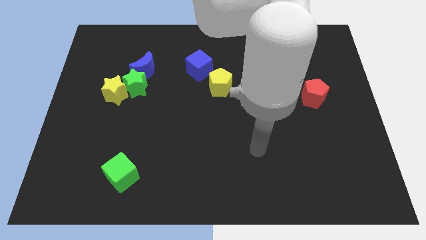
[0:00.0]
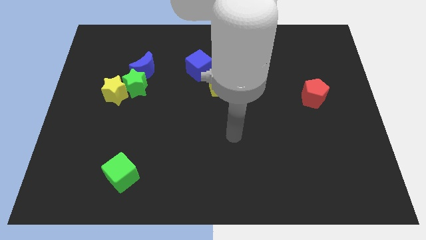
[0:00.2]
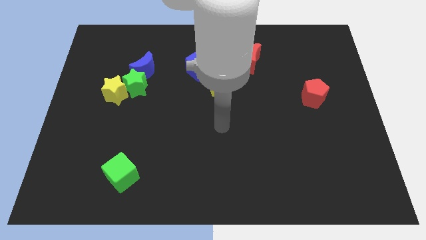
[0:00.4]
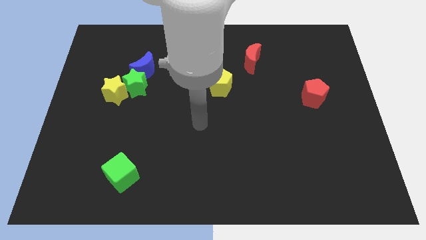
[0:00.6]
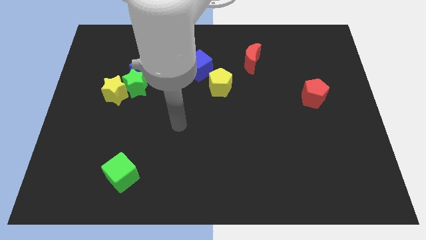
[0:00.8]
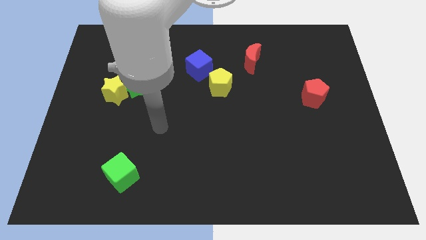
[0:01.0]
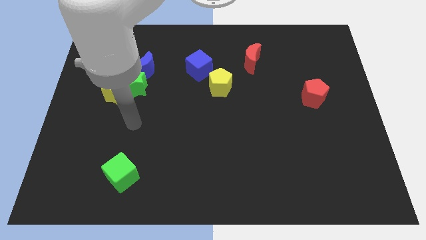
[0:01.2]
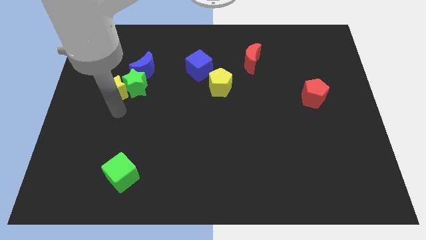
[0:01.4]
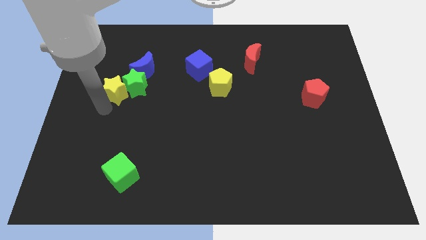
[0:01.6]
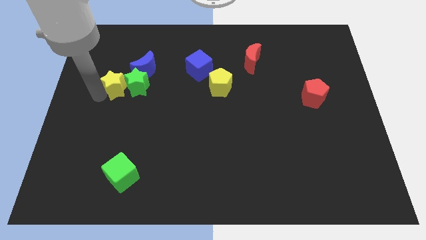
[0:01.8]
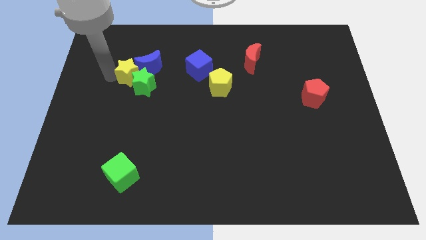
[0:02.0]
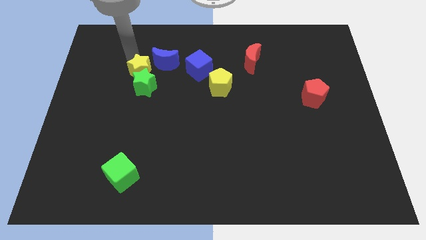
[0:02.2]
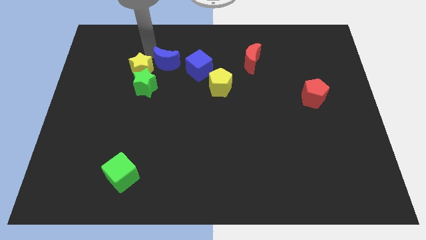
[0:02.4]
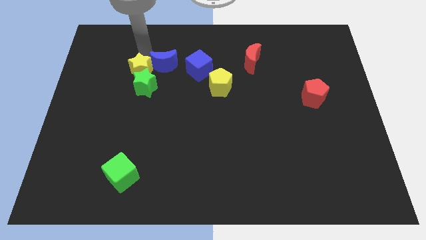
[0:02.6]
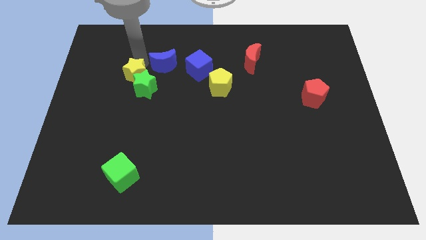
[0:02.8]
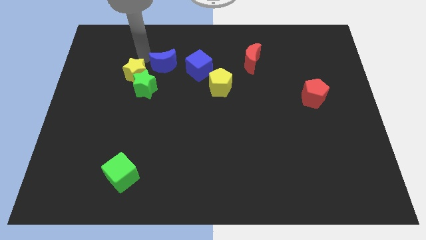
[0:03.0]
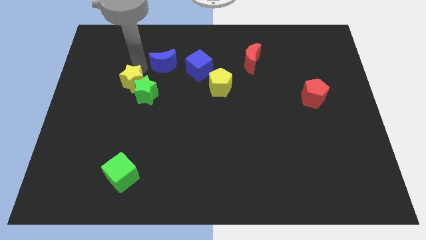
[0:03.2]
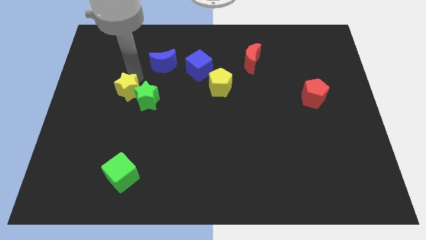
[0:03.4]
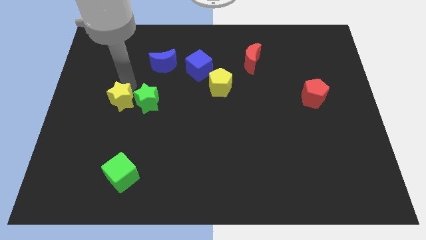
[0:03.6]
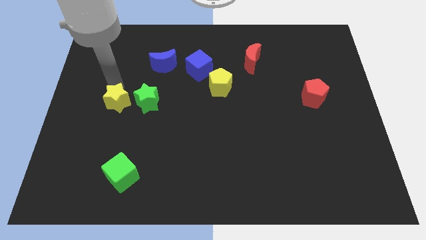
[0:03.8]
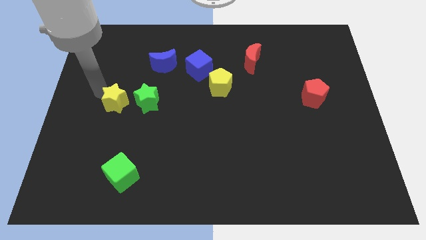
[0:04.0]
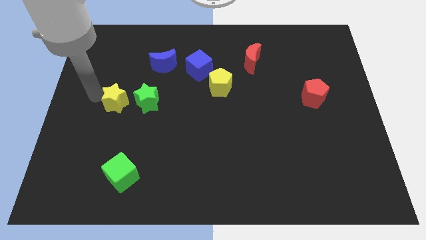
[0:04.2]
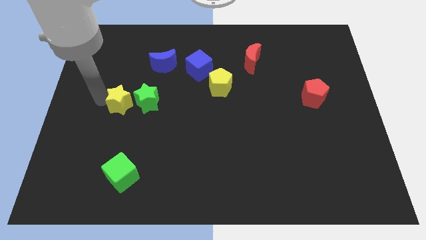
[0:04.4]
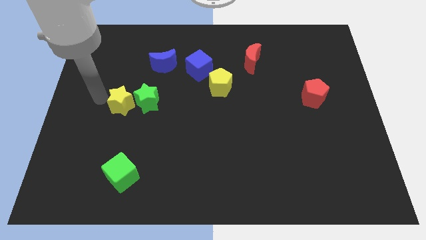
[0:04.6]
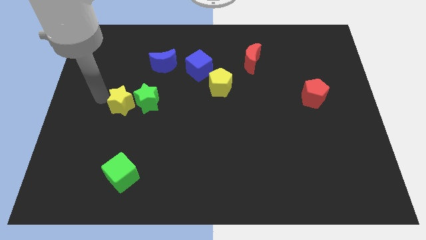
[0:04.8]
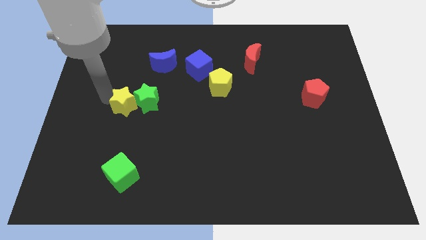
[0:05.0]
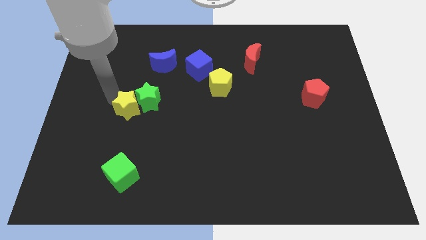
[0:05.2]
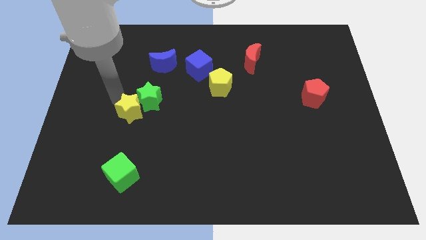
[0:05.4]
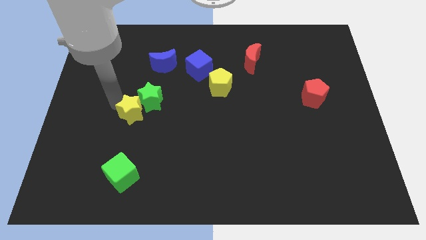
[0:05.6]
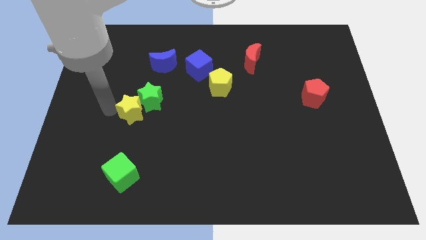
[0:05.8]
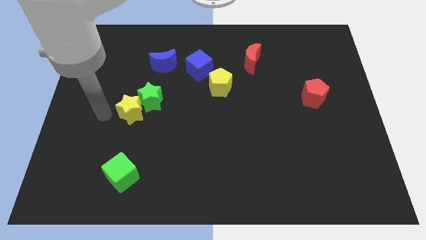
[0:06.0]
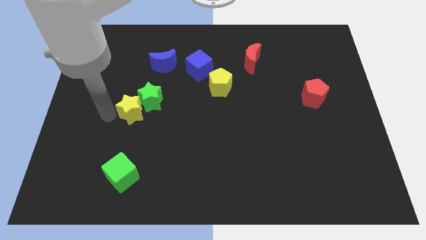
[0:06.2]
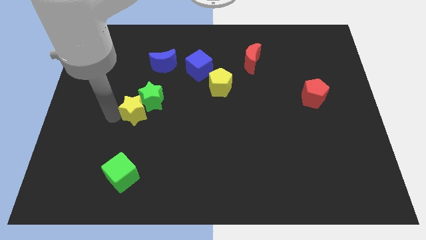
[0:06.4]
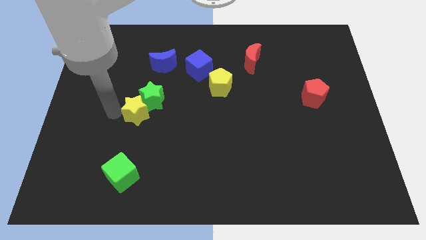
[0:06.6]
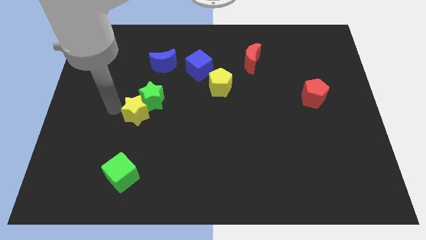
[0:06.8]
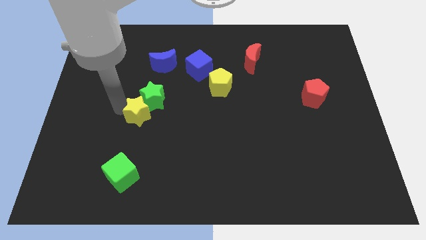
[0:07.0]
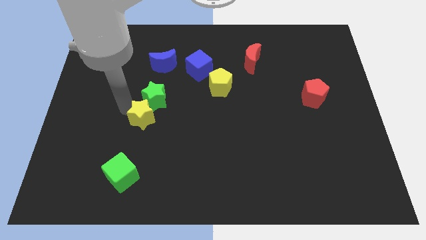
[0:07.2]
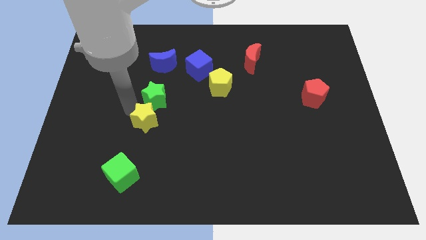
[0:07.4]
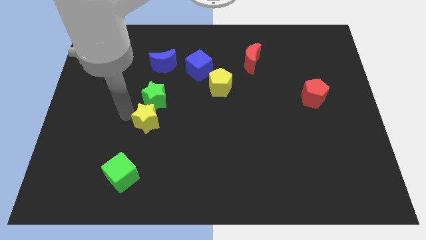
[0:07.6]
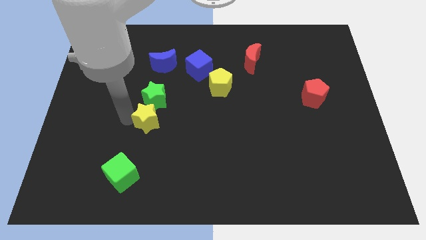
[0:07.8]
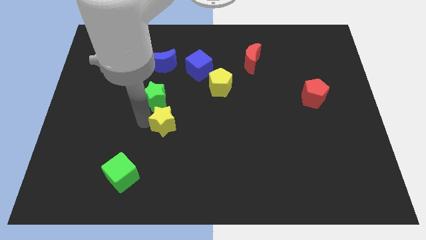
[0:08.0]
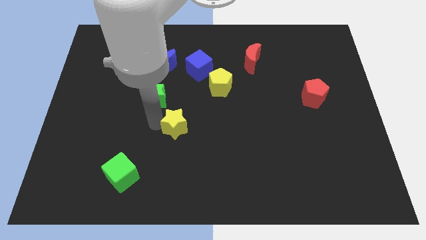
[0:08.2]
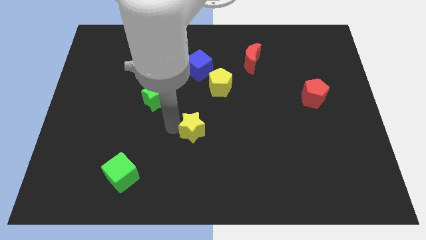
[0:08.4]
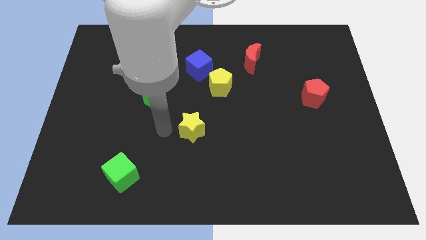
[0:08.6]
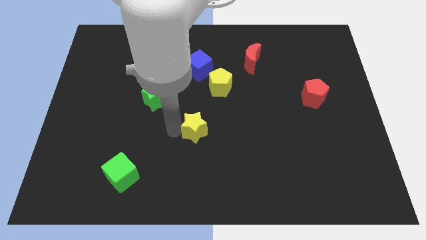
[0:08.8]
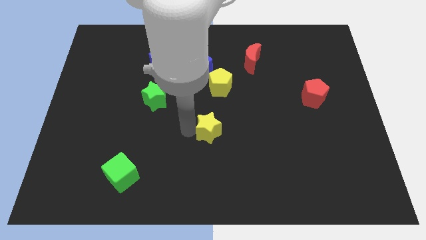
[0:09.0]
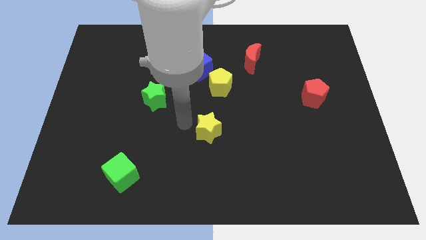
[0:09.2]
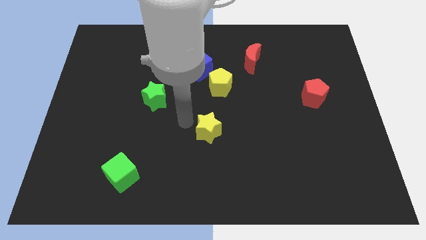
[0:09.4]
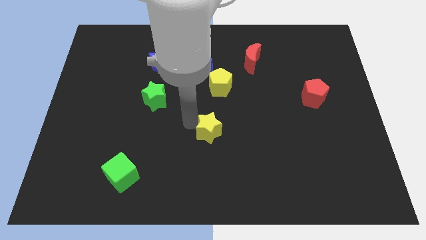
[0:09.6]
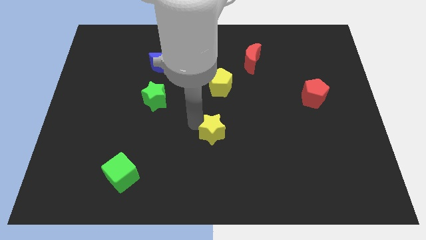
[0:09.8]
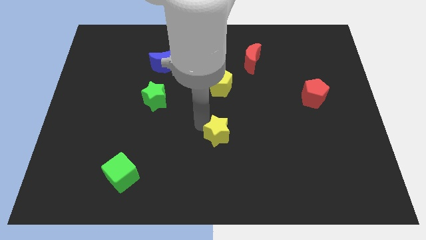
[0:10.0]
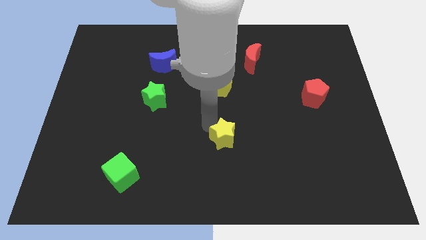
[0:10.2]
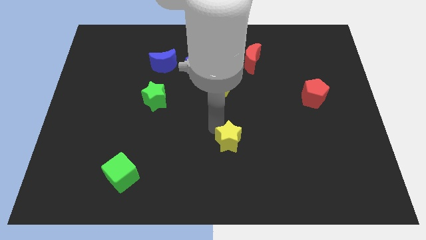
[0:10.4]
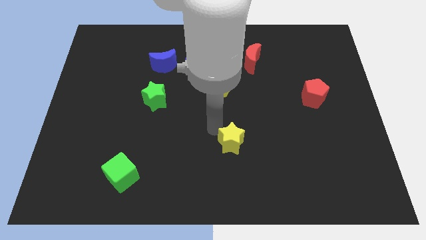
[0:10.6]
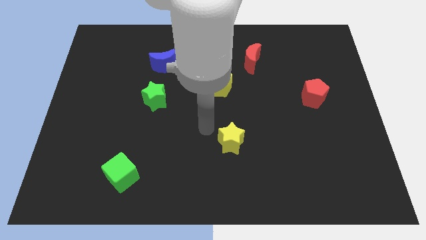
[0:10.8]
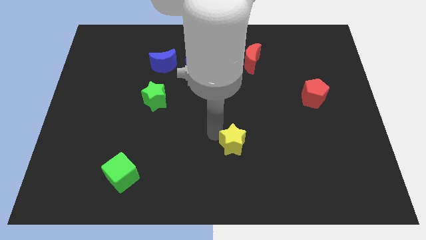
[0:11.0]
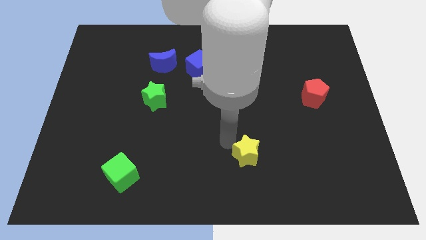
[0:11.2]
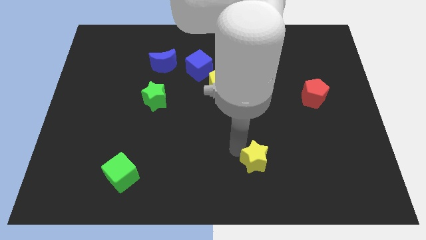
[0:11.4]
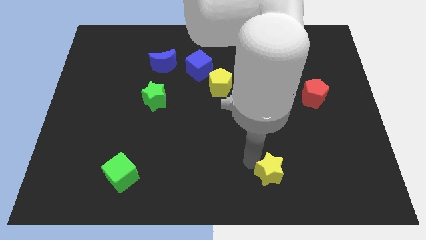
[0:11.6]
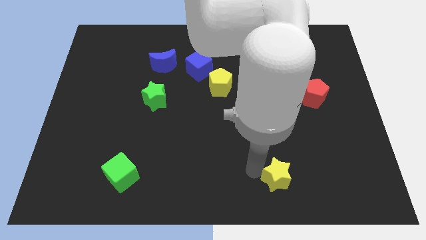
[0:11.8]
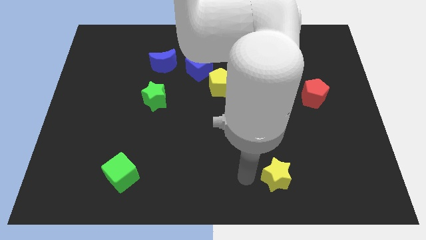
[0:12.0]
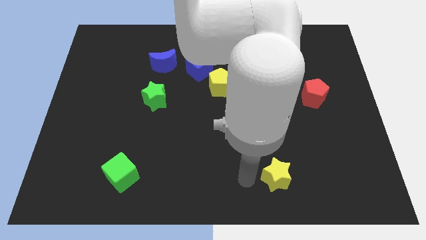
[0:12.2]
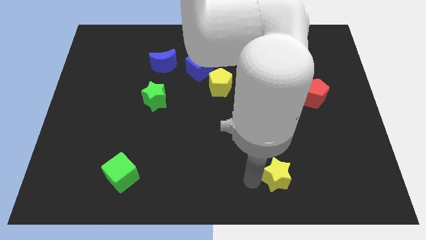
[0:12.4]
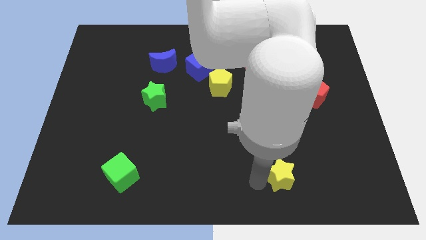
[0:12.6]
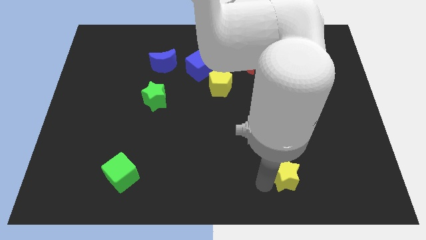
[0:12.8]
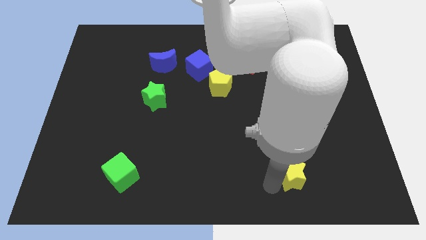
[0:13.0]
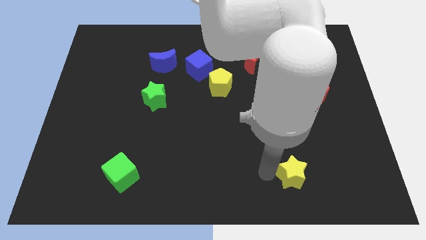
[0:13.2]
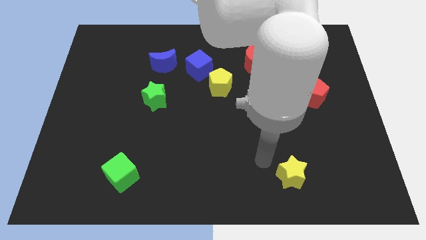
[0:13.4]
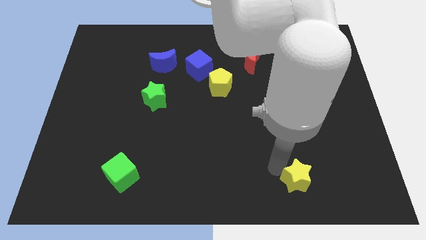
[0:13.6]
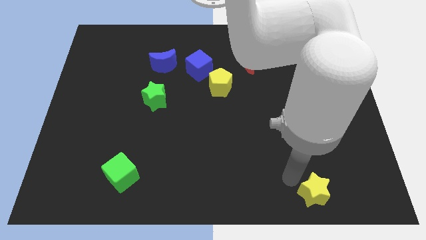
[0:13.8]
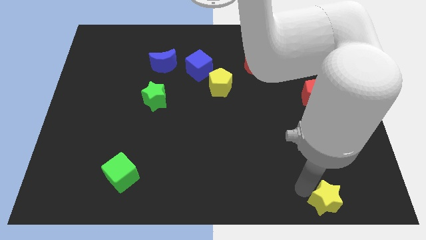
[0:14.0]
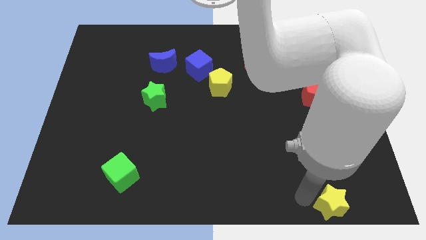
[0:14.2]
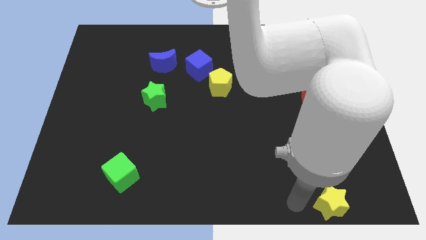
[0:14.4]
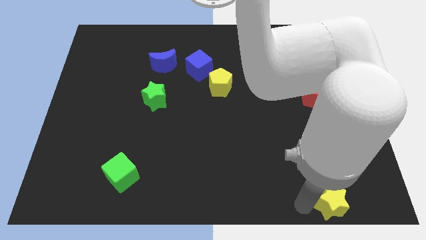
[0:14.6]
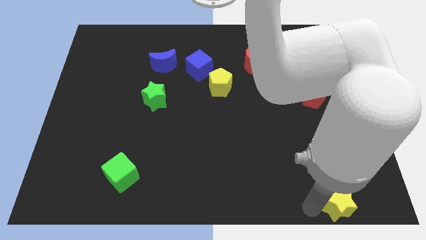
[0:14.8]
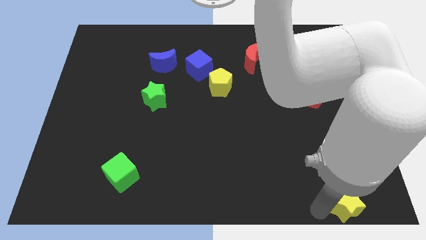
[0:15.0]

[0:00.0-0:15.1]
push the yellow star to the bottom right
